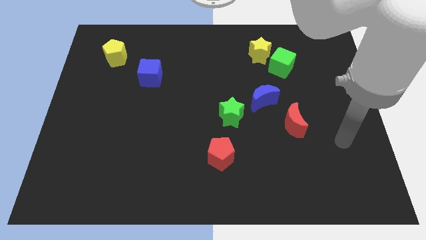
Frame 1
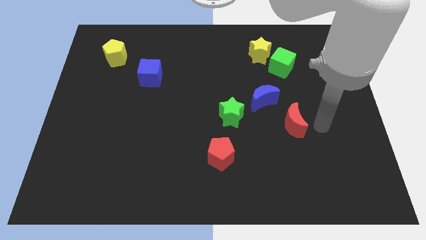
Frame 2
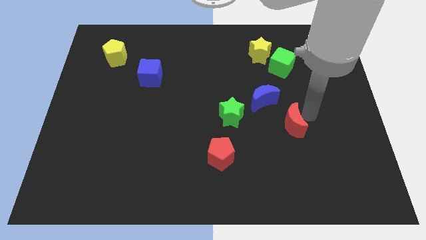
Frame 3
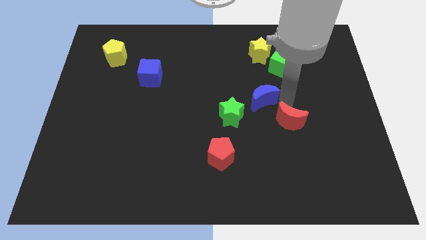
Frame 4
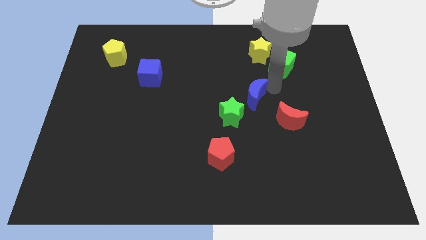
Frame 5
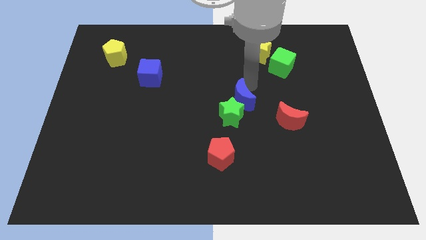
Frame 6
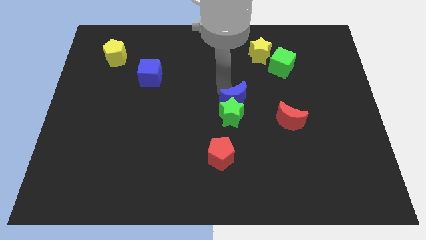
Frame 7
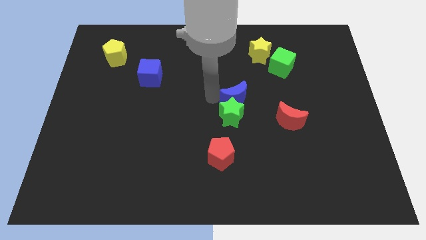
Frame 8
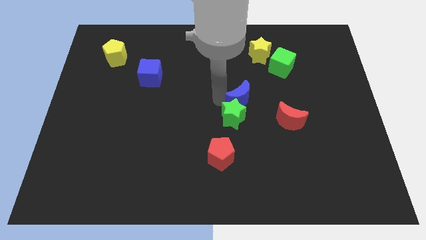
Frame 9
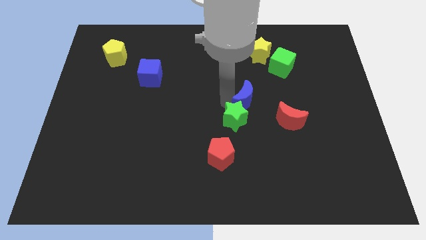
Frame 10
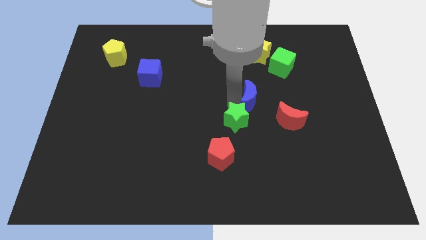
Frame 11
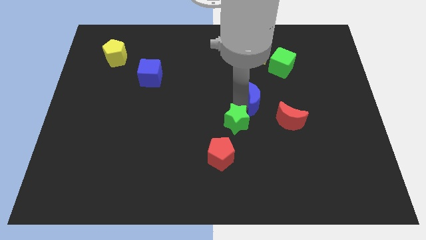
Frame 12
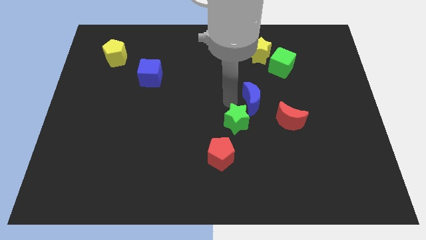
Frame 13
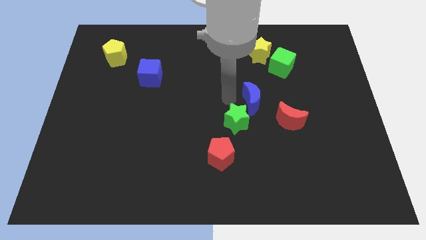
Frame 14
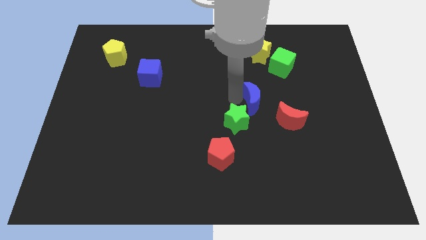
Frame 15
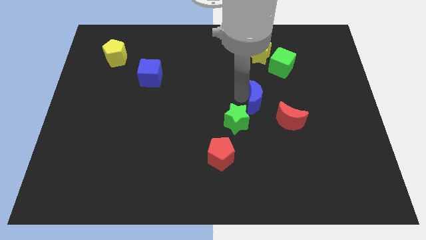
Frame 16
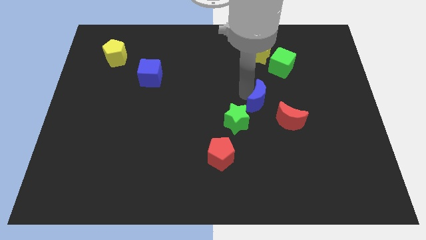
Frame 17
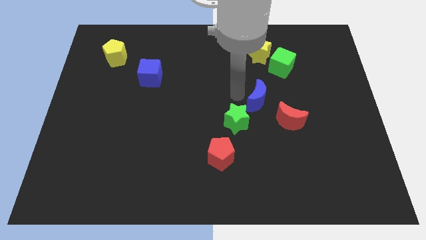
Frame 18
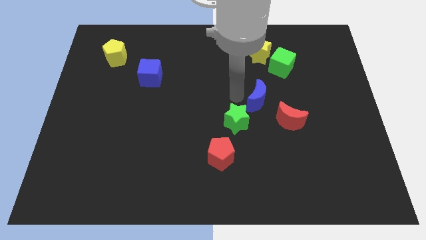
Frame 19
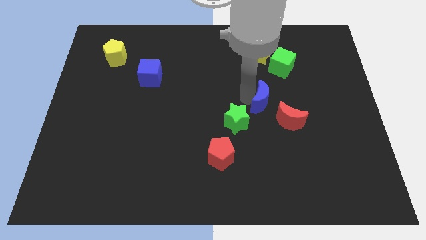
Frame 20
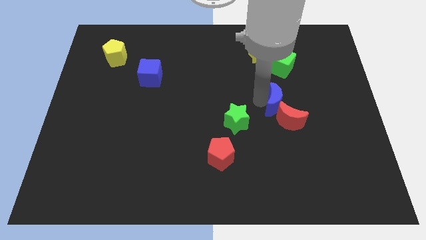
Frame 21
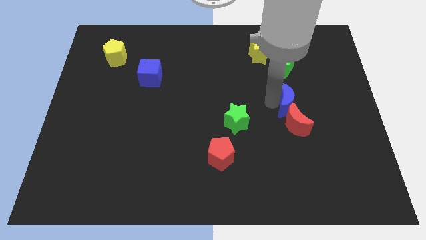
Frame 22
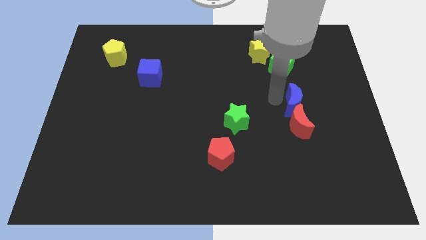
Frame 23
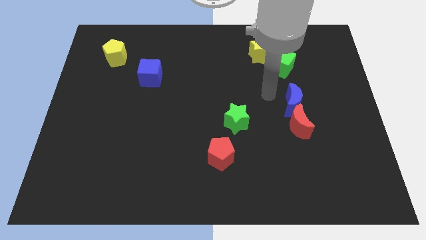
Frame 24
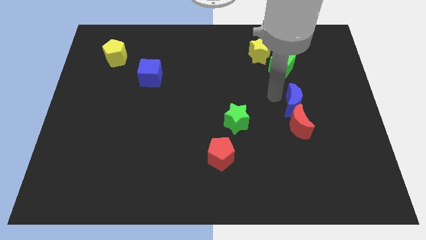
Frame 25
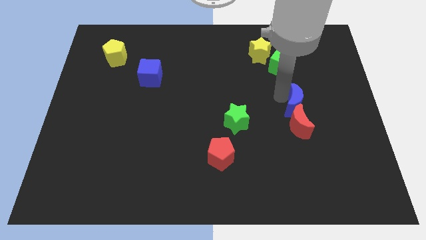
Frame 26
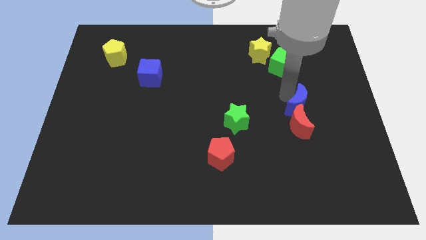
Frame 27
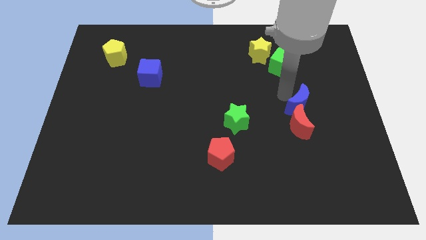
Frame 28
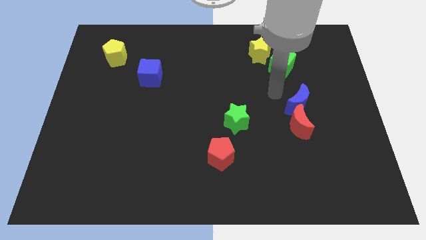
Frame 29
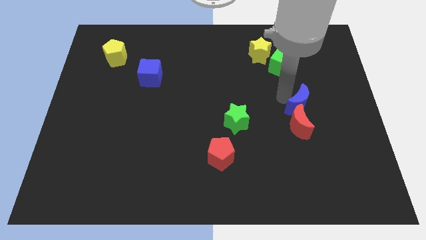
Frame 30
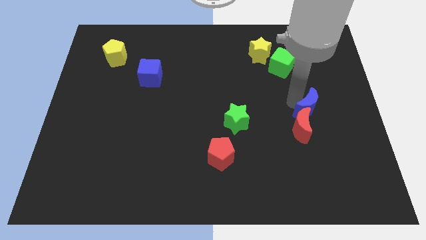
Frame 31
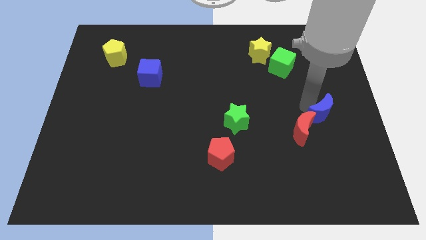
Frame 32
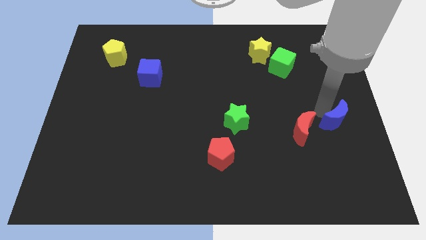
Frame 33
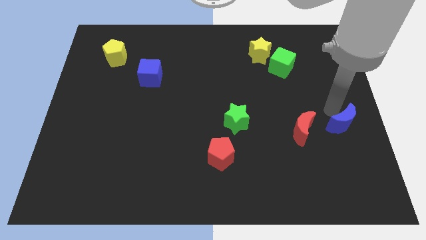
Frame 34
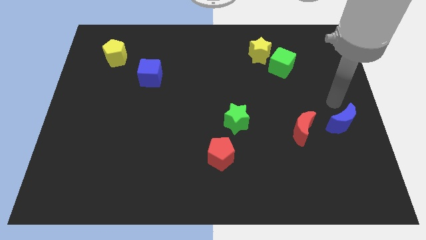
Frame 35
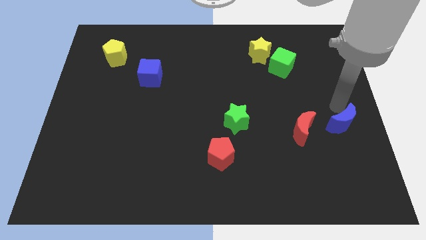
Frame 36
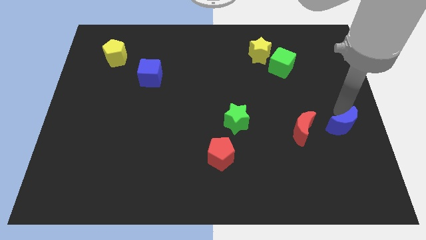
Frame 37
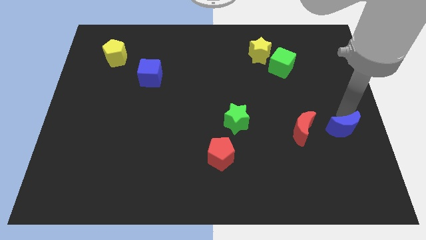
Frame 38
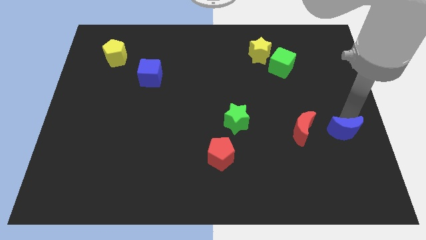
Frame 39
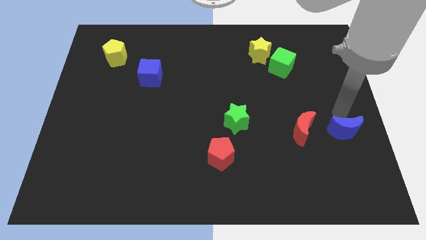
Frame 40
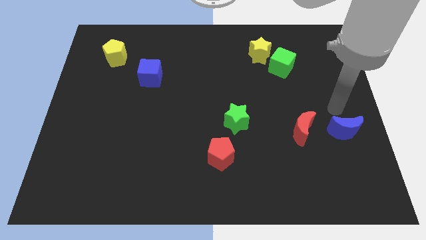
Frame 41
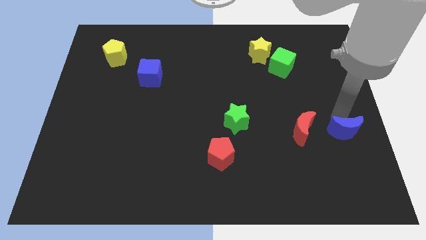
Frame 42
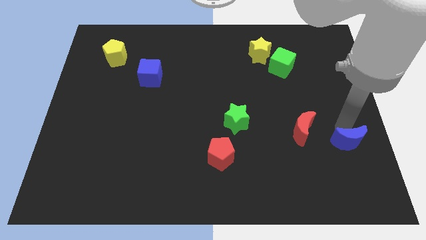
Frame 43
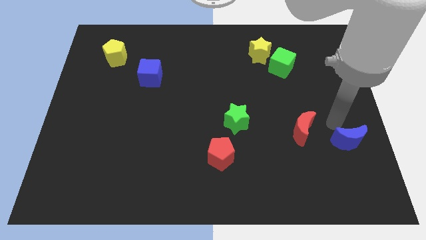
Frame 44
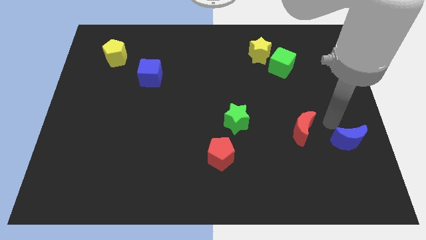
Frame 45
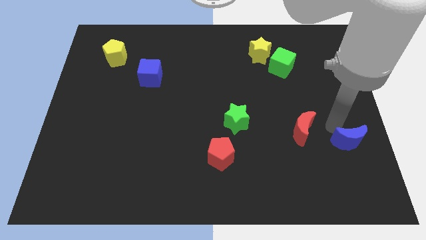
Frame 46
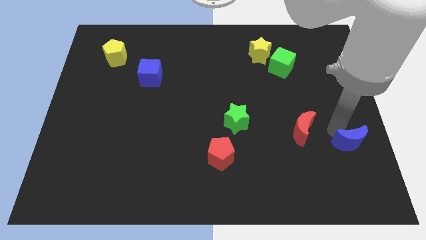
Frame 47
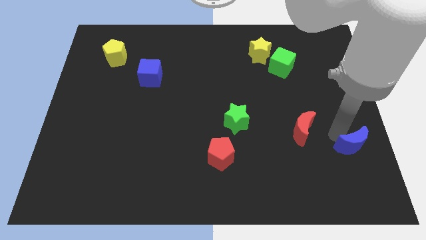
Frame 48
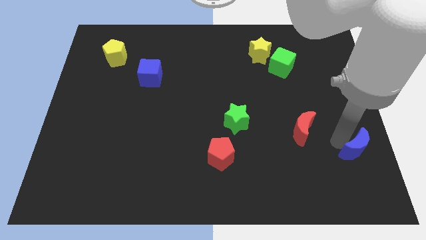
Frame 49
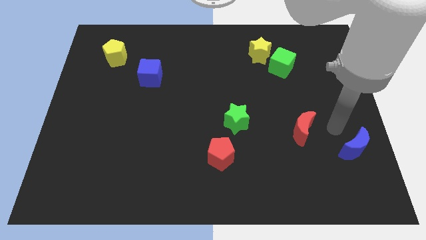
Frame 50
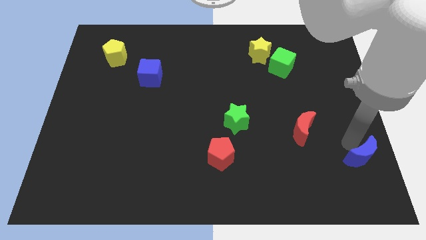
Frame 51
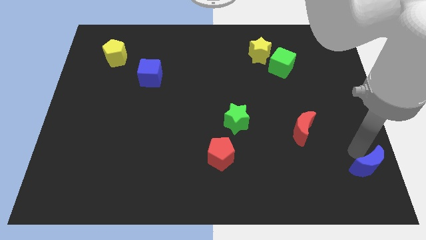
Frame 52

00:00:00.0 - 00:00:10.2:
slide the blue moon to the bottom right corner

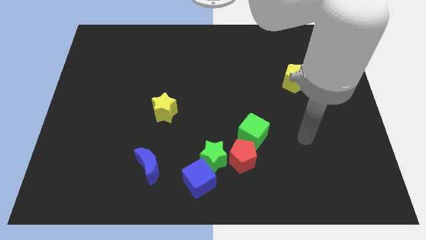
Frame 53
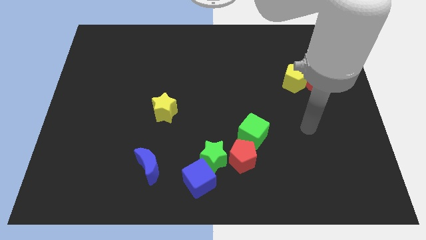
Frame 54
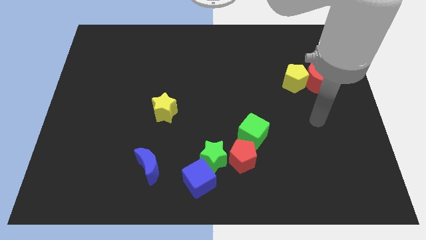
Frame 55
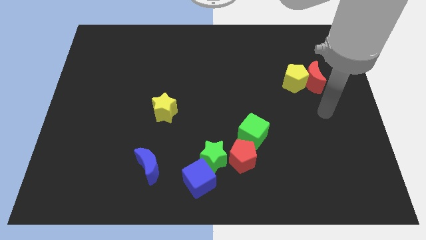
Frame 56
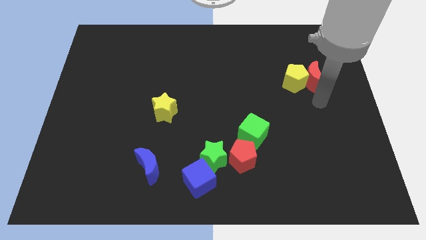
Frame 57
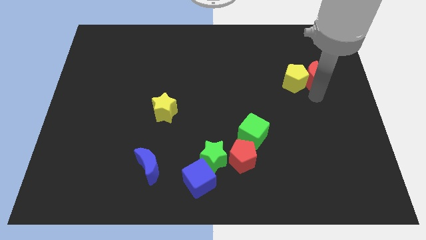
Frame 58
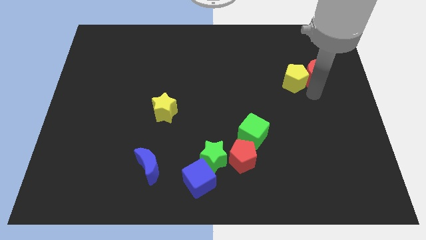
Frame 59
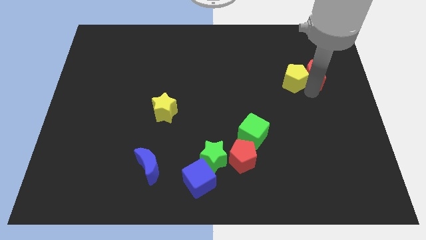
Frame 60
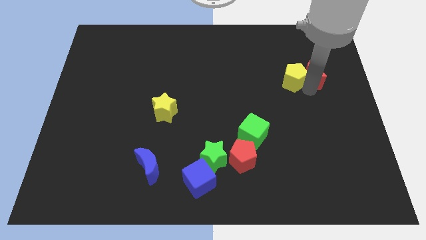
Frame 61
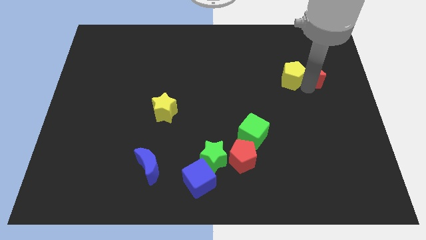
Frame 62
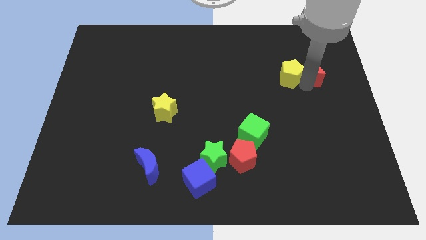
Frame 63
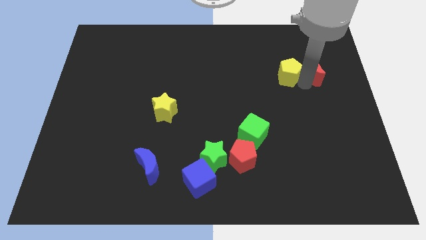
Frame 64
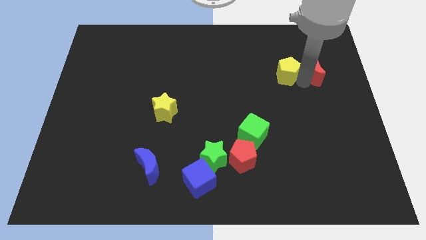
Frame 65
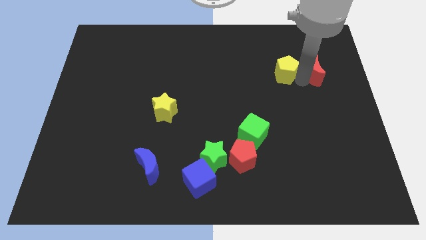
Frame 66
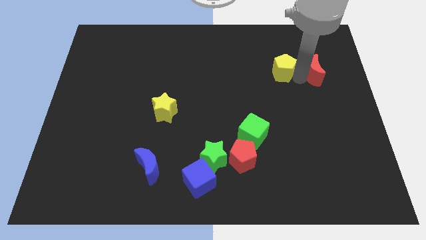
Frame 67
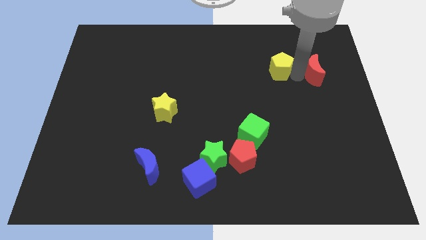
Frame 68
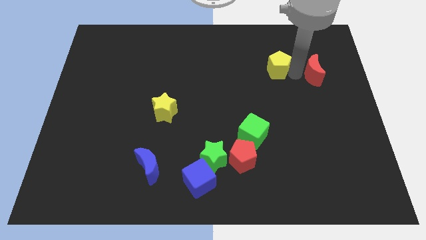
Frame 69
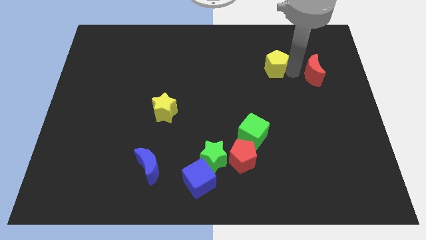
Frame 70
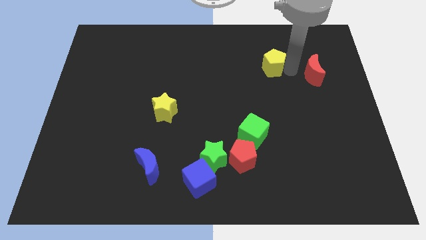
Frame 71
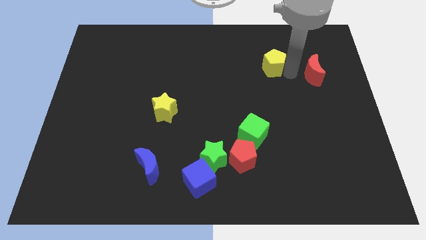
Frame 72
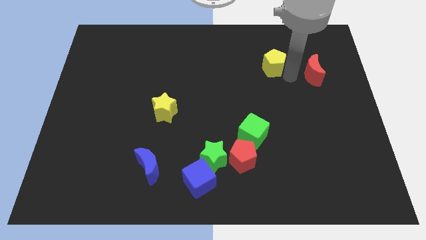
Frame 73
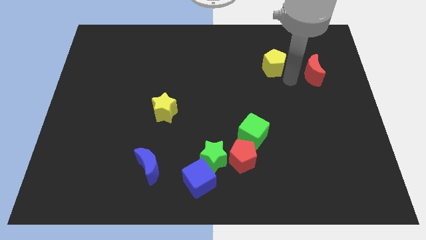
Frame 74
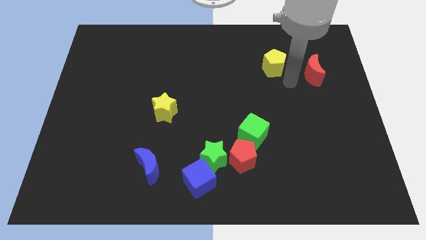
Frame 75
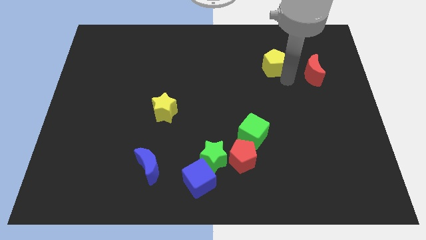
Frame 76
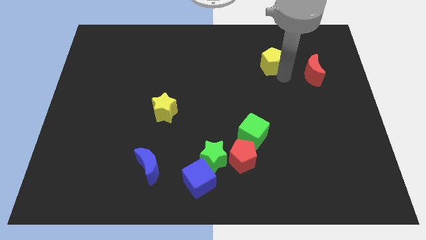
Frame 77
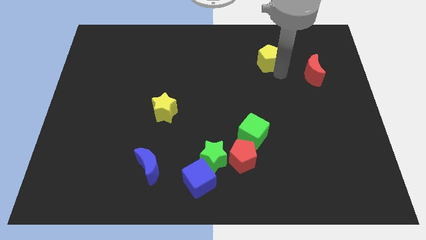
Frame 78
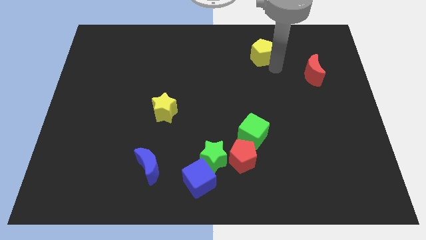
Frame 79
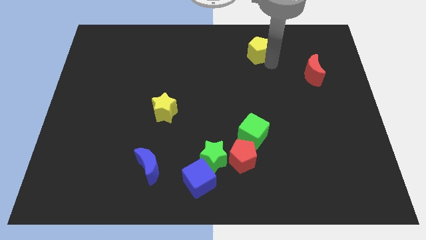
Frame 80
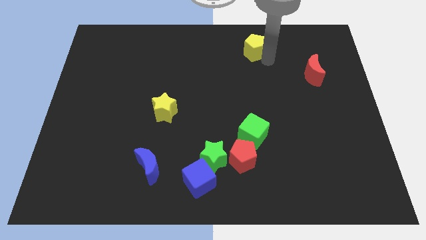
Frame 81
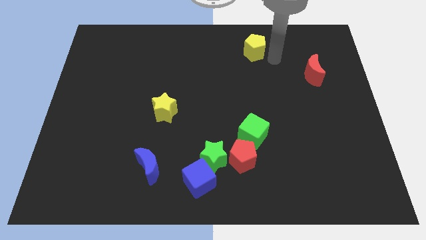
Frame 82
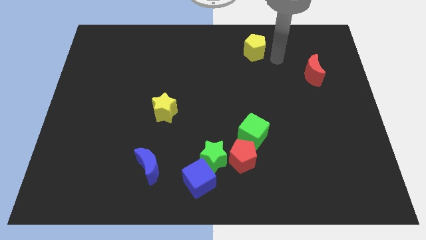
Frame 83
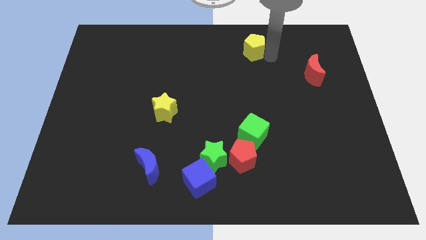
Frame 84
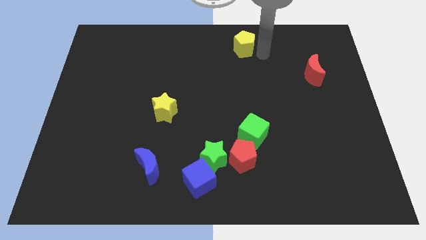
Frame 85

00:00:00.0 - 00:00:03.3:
put the yellow pentagon to the top
